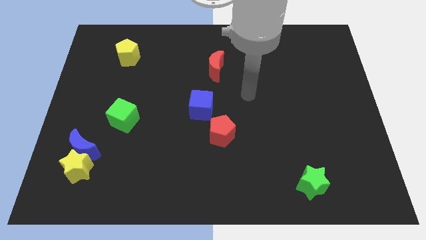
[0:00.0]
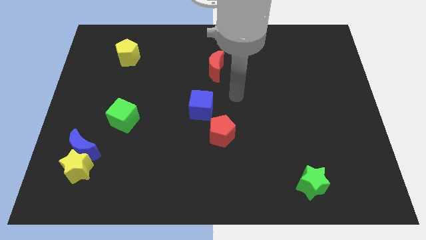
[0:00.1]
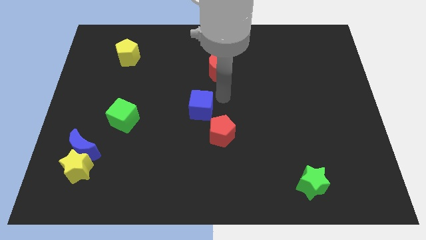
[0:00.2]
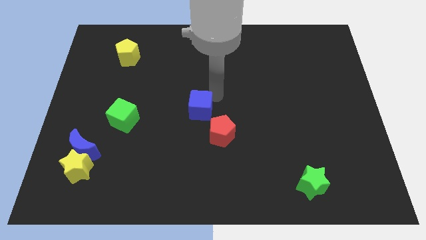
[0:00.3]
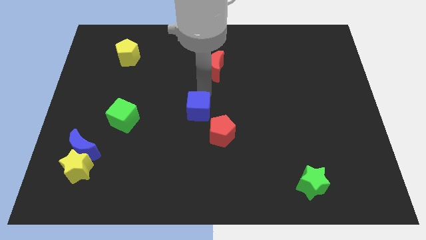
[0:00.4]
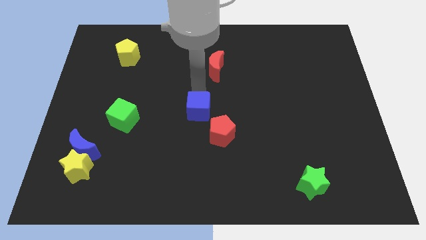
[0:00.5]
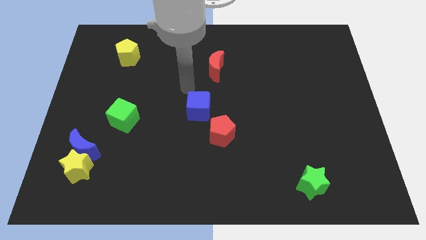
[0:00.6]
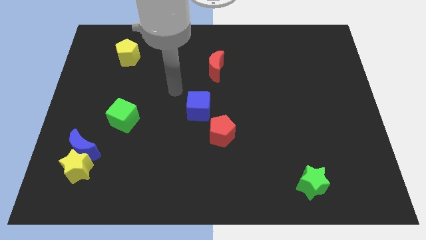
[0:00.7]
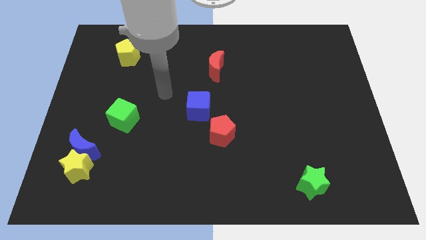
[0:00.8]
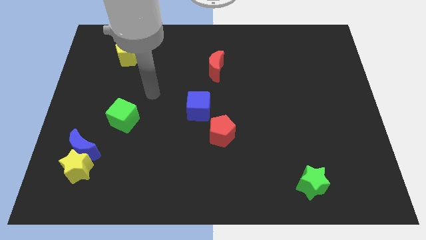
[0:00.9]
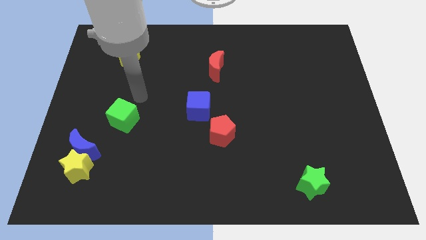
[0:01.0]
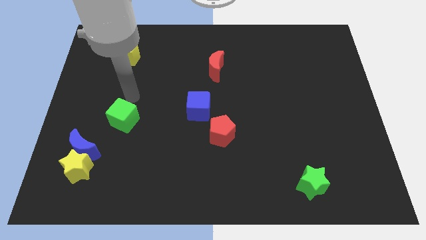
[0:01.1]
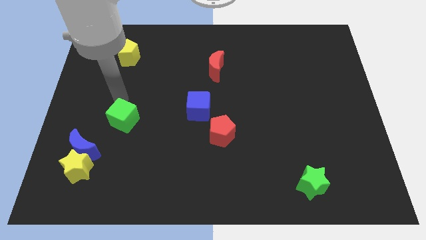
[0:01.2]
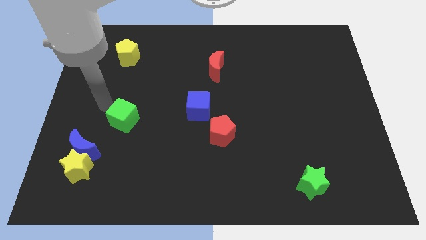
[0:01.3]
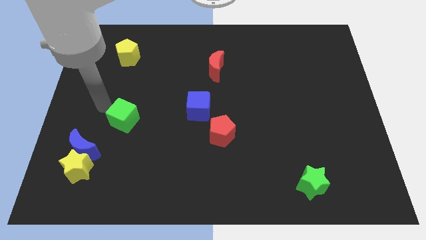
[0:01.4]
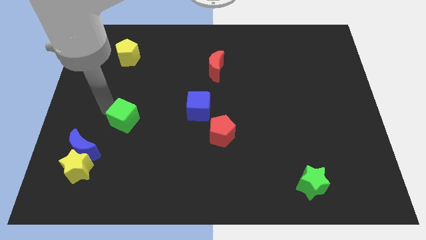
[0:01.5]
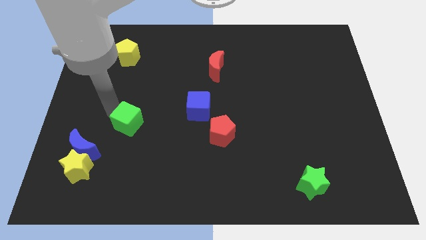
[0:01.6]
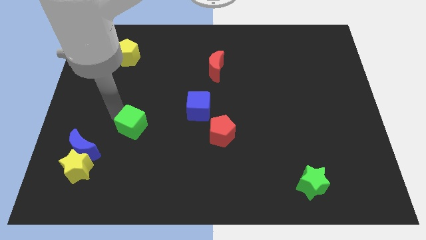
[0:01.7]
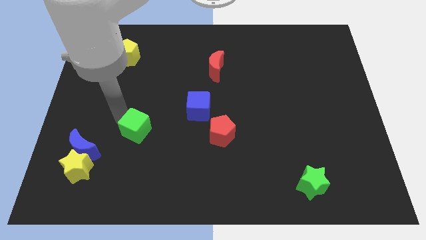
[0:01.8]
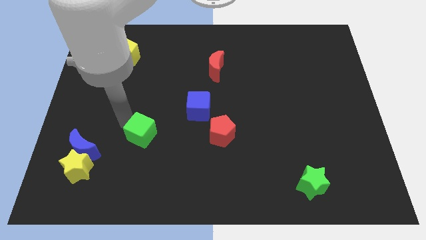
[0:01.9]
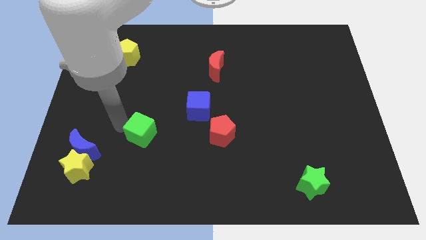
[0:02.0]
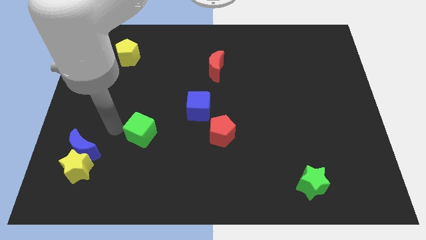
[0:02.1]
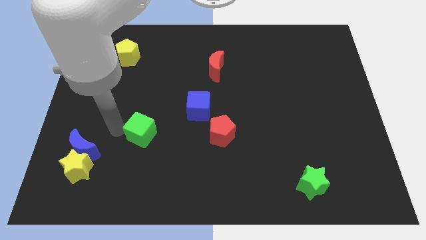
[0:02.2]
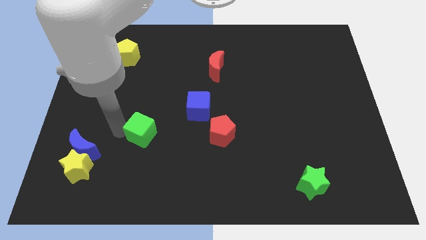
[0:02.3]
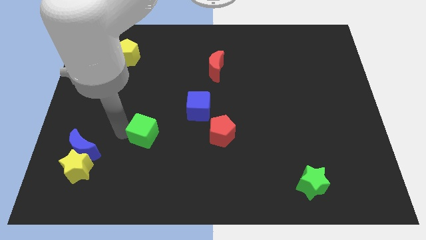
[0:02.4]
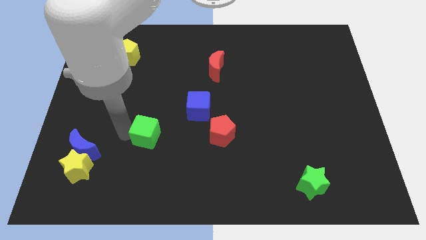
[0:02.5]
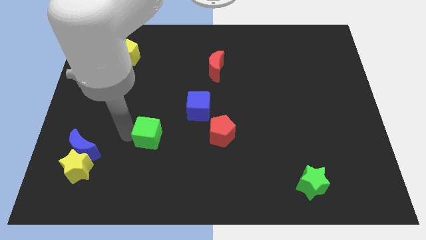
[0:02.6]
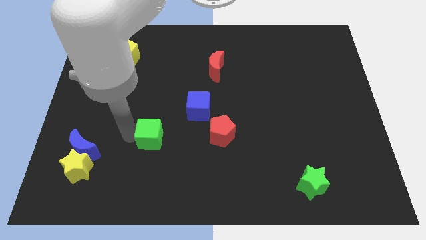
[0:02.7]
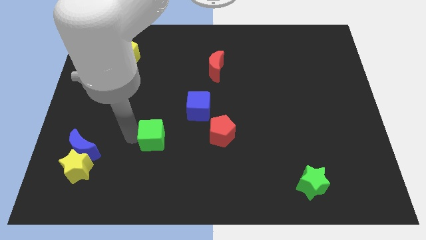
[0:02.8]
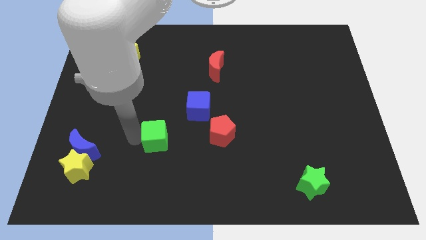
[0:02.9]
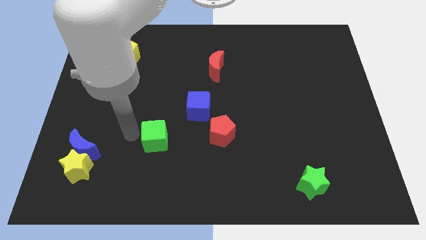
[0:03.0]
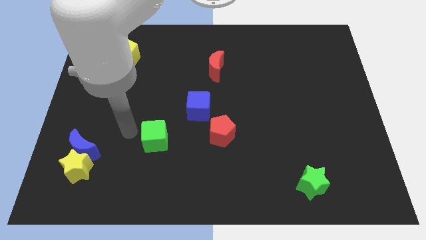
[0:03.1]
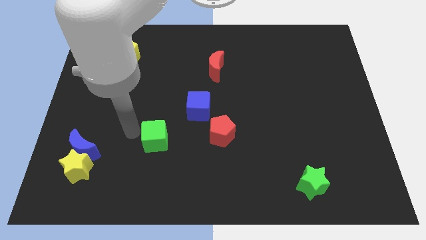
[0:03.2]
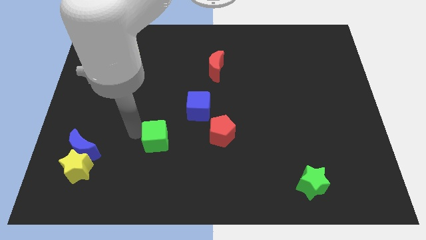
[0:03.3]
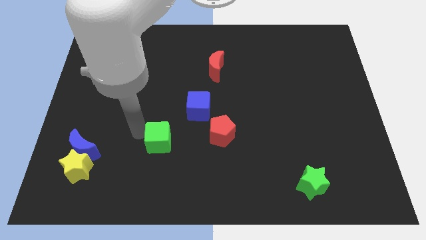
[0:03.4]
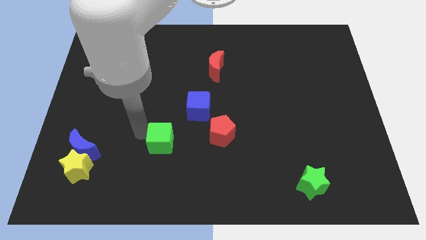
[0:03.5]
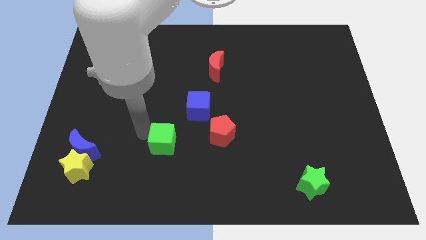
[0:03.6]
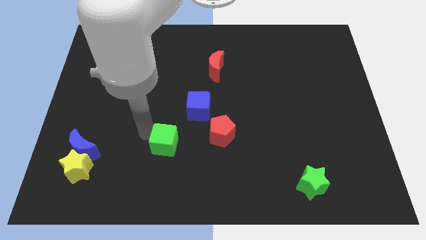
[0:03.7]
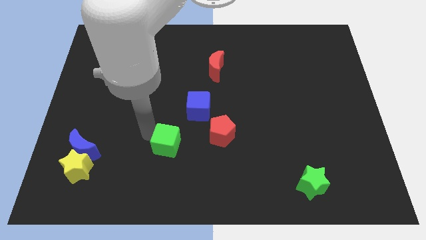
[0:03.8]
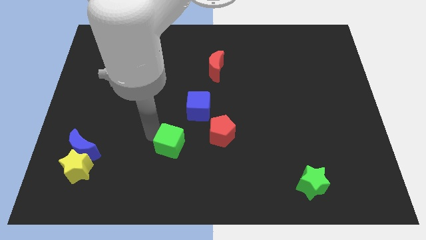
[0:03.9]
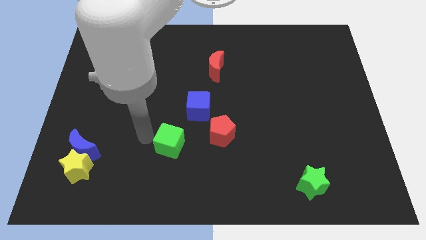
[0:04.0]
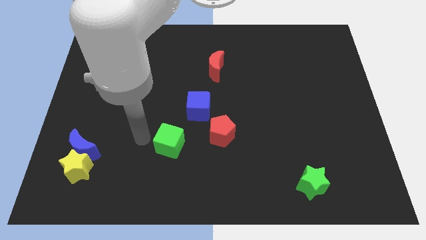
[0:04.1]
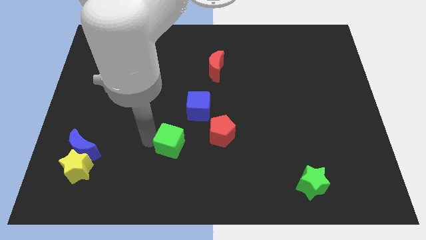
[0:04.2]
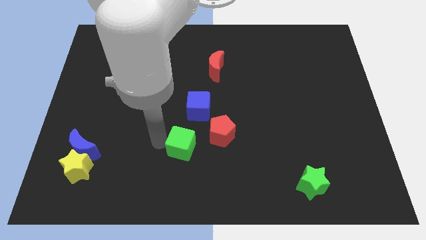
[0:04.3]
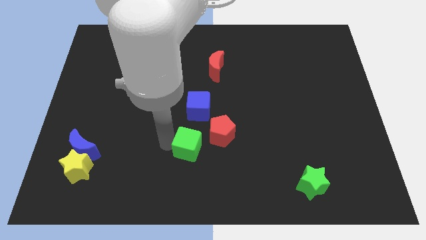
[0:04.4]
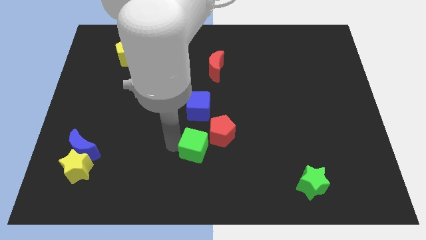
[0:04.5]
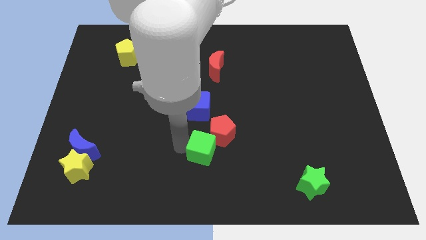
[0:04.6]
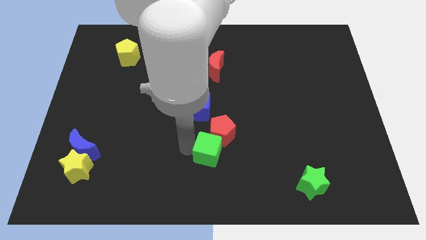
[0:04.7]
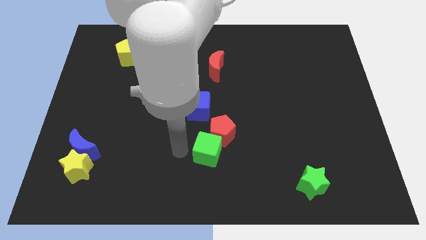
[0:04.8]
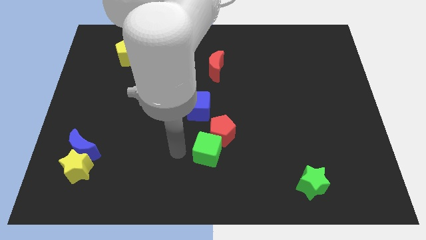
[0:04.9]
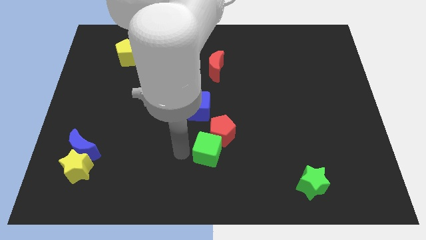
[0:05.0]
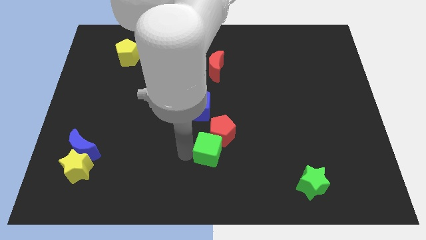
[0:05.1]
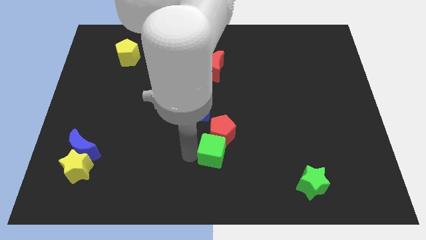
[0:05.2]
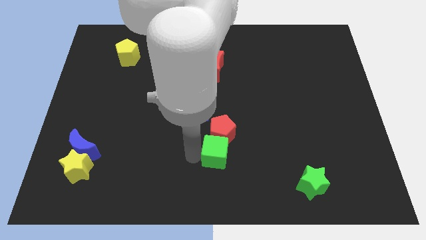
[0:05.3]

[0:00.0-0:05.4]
push the green cube to the bottom right side of the red pentagon

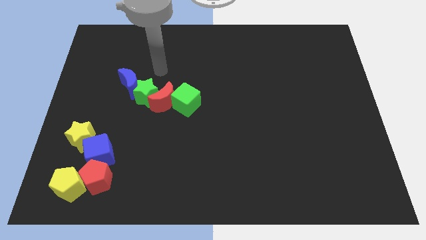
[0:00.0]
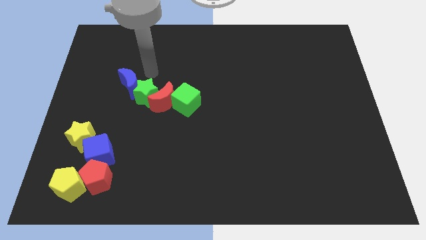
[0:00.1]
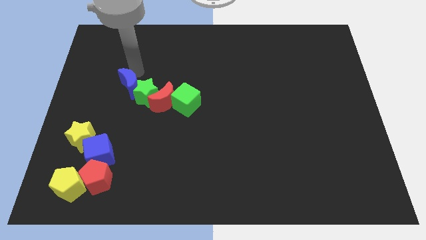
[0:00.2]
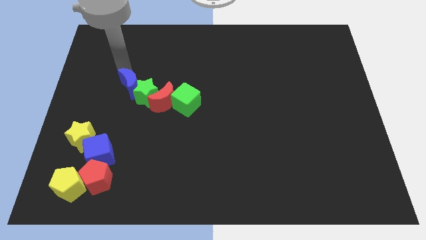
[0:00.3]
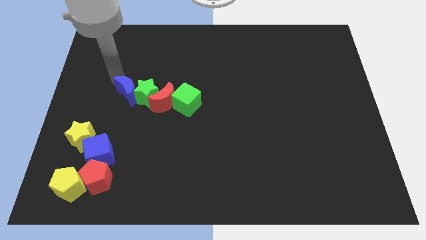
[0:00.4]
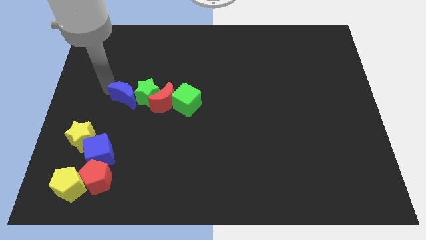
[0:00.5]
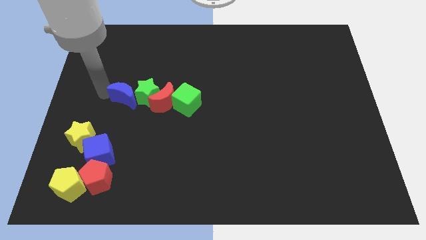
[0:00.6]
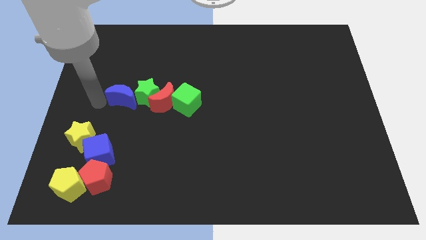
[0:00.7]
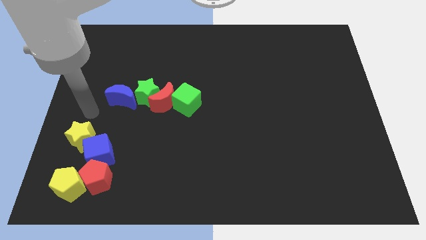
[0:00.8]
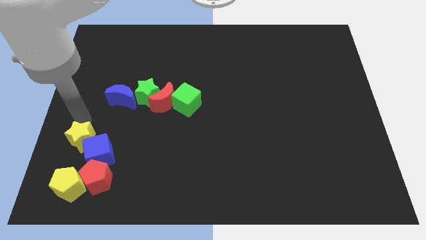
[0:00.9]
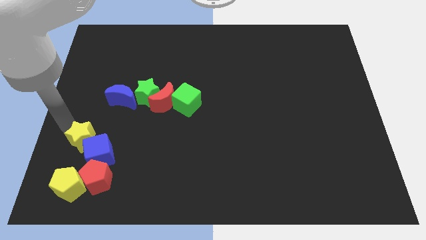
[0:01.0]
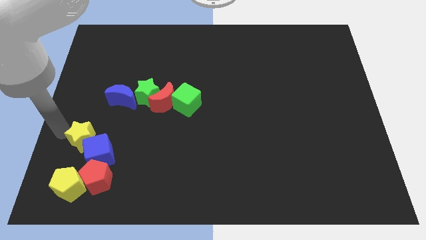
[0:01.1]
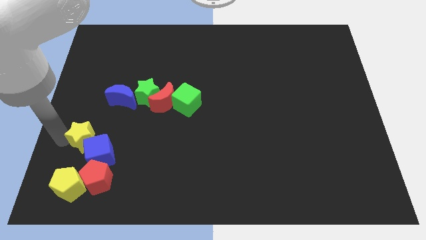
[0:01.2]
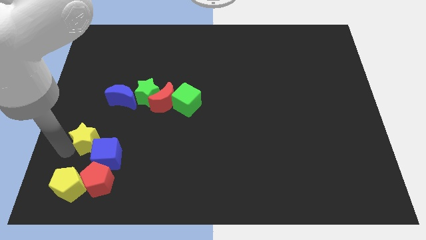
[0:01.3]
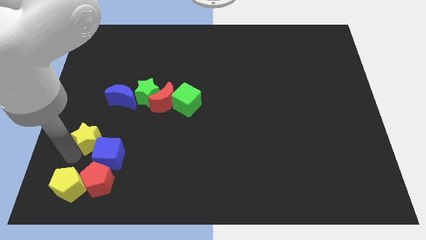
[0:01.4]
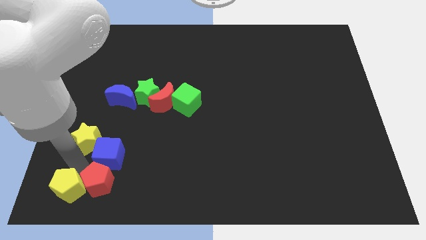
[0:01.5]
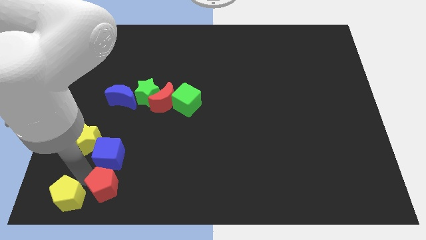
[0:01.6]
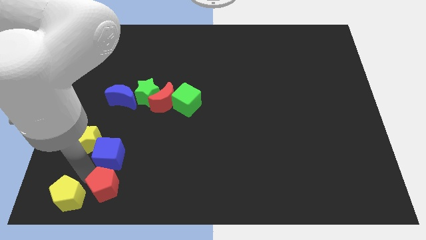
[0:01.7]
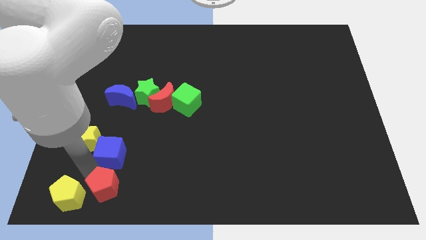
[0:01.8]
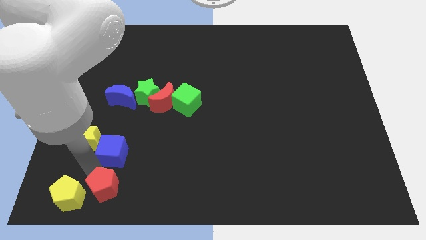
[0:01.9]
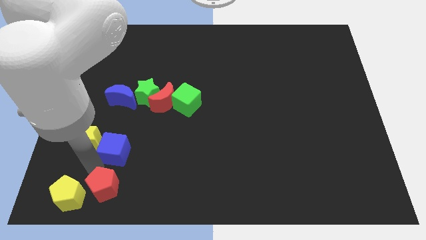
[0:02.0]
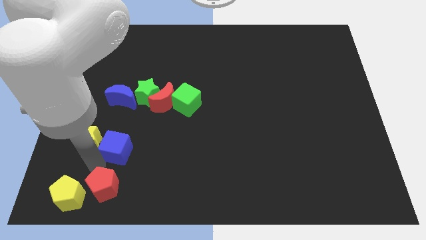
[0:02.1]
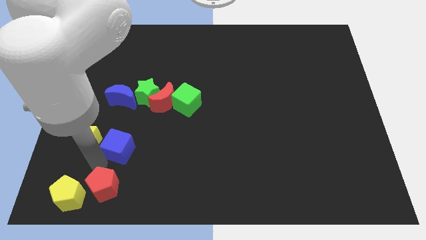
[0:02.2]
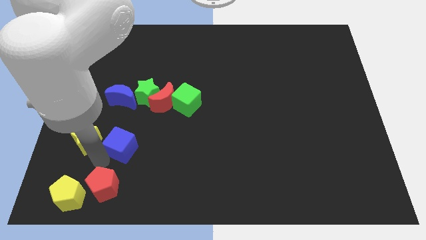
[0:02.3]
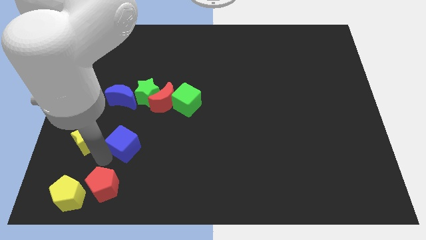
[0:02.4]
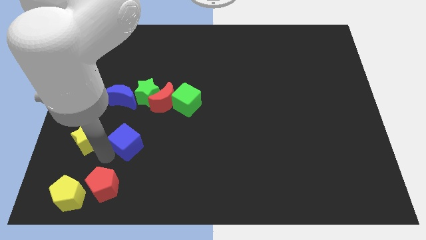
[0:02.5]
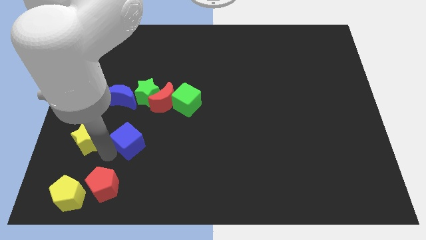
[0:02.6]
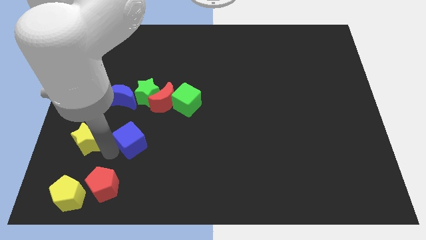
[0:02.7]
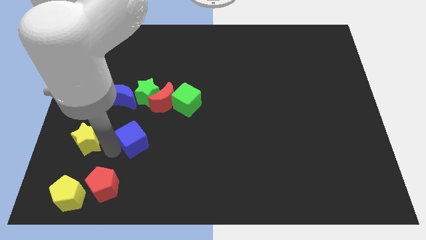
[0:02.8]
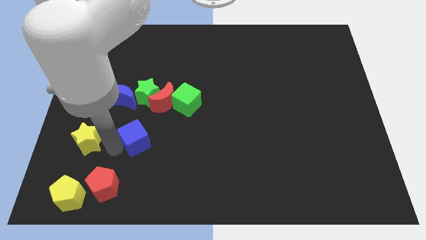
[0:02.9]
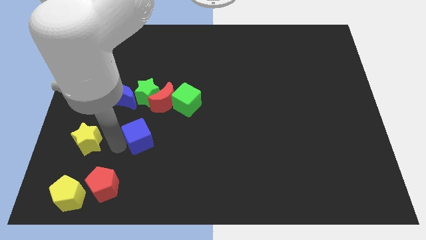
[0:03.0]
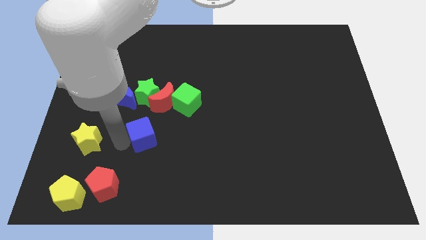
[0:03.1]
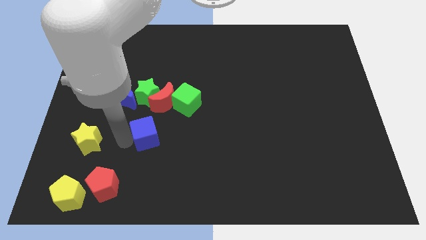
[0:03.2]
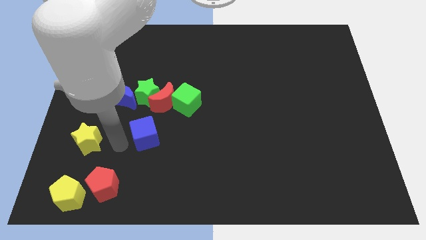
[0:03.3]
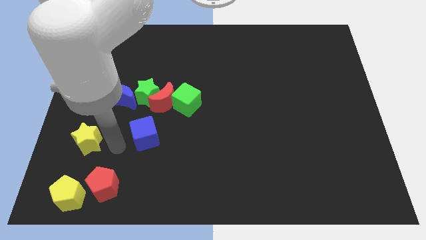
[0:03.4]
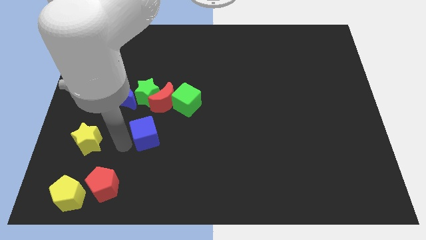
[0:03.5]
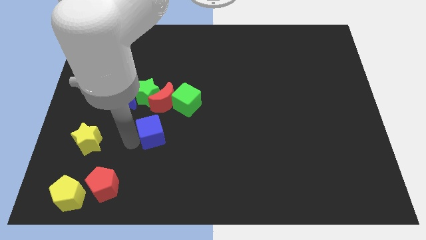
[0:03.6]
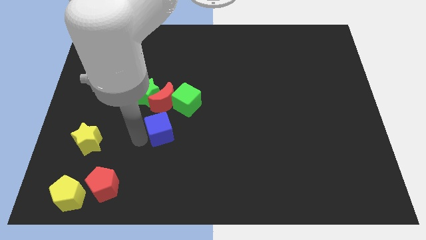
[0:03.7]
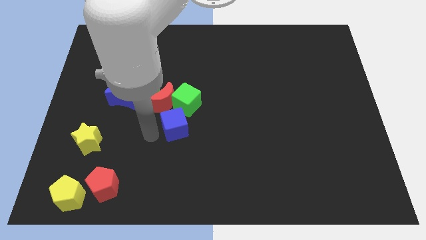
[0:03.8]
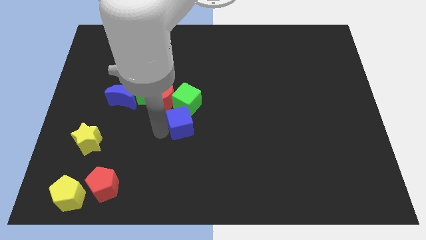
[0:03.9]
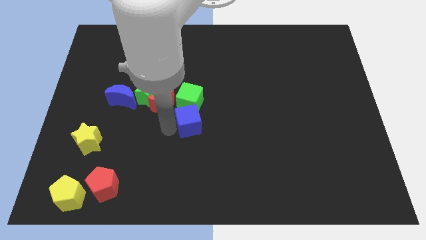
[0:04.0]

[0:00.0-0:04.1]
put the blue cube diagonally down and to the right of the green cube
